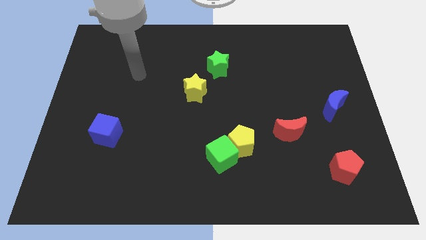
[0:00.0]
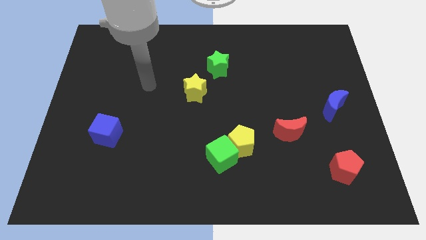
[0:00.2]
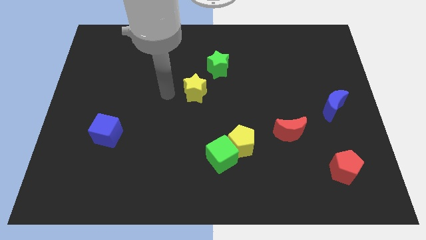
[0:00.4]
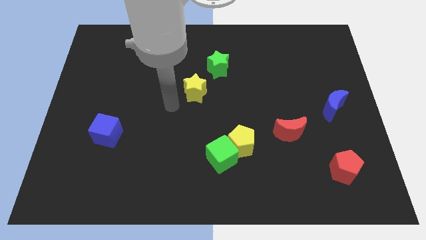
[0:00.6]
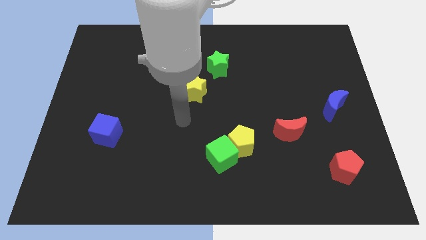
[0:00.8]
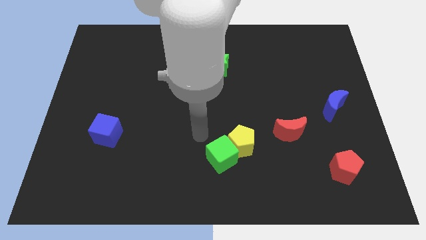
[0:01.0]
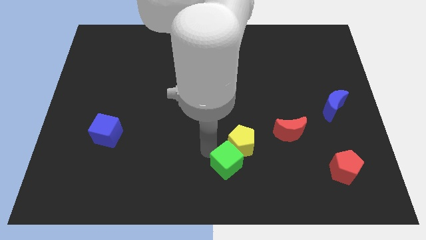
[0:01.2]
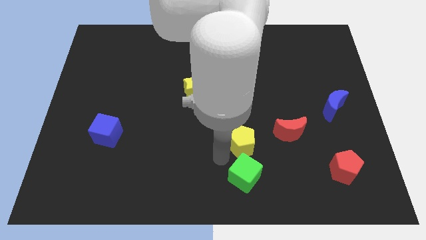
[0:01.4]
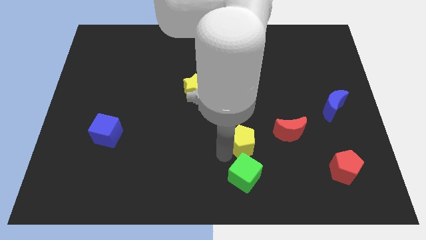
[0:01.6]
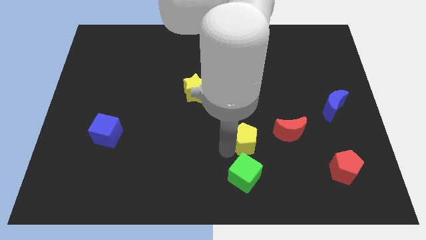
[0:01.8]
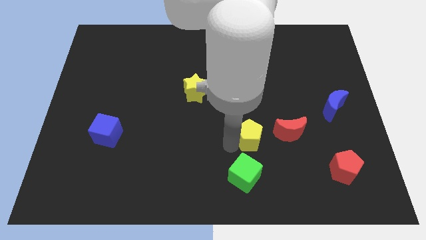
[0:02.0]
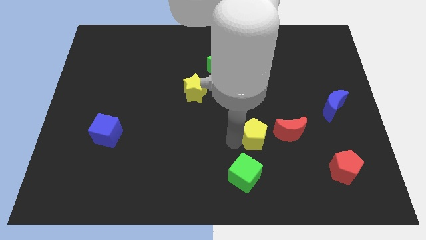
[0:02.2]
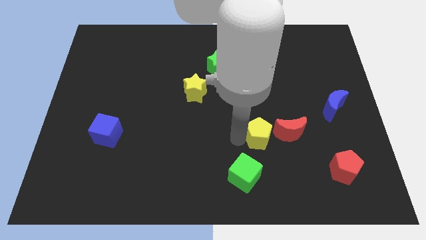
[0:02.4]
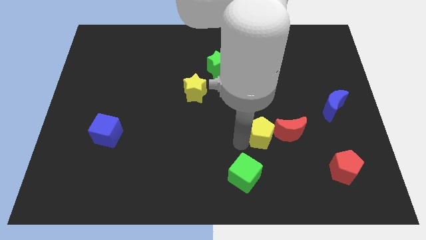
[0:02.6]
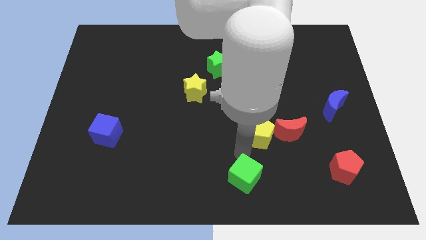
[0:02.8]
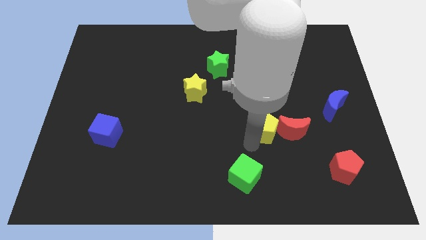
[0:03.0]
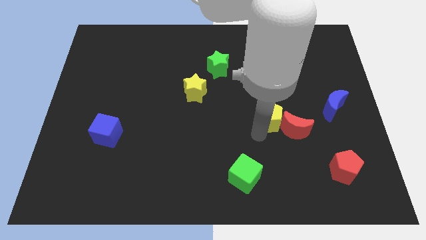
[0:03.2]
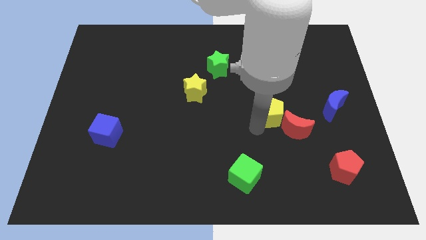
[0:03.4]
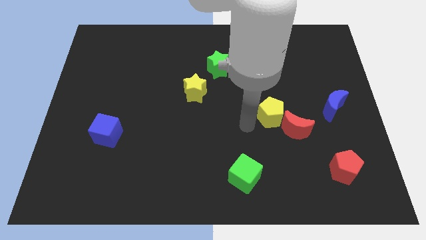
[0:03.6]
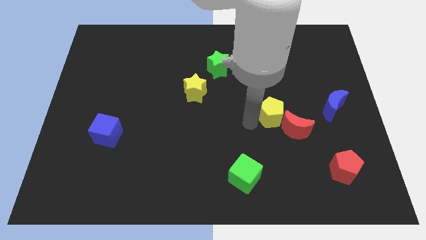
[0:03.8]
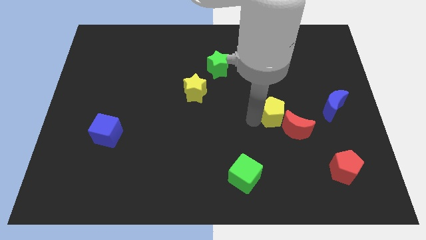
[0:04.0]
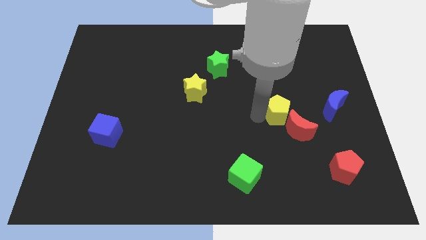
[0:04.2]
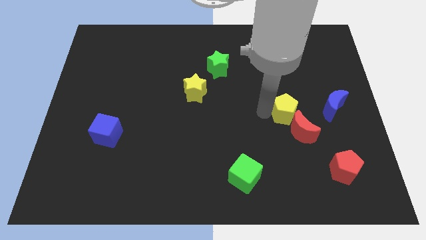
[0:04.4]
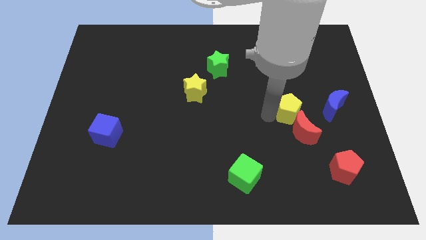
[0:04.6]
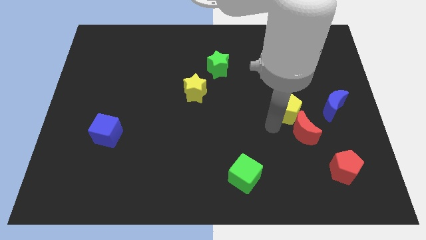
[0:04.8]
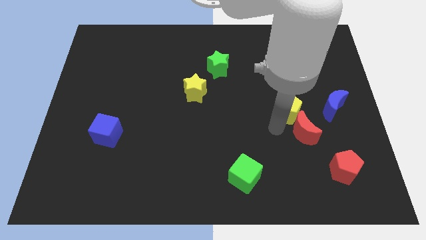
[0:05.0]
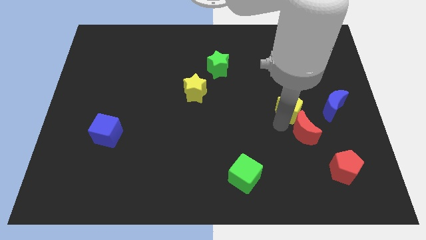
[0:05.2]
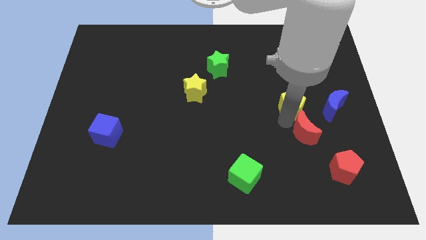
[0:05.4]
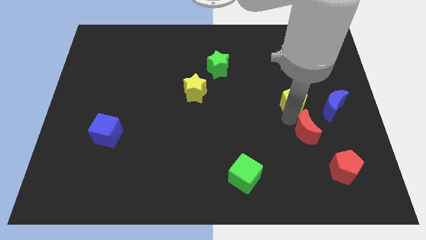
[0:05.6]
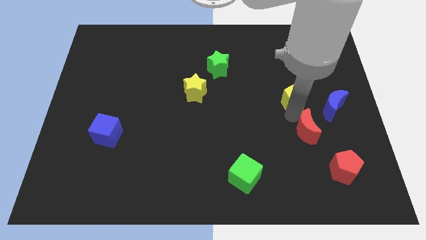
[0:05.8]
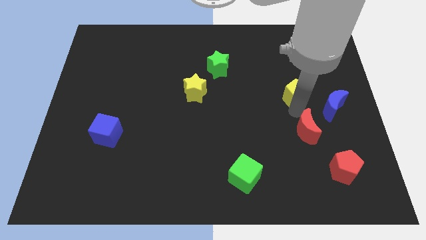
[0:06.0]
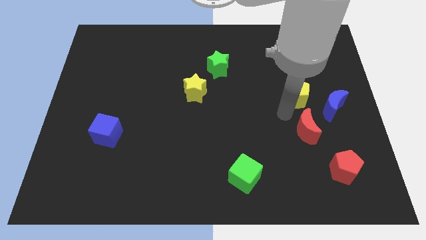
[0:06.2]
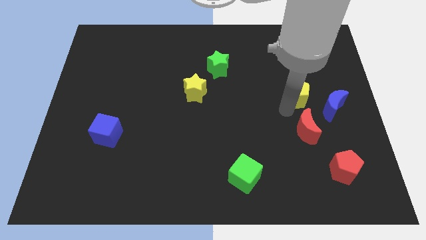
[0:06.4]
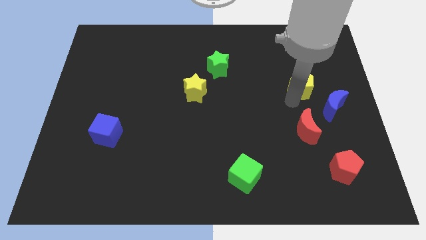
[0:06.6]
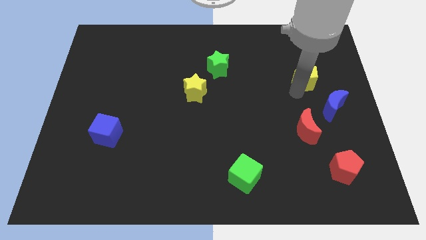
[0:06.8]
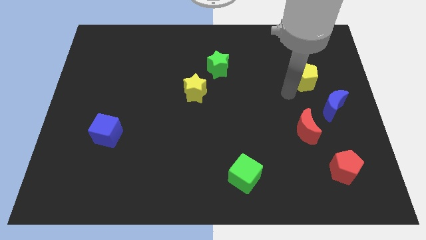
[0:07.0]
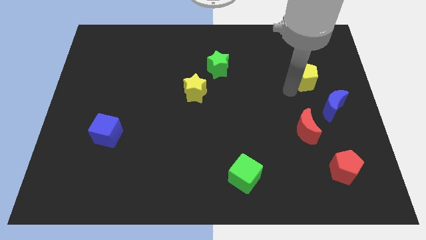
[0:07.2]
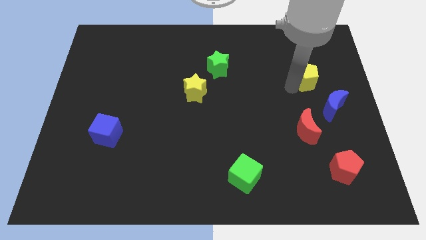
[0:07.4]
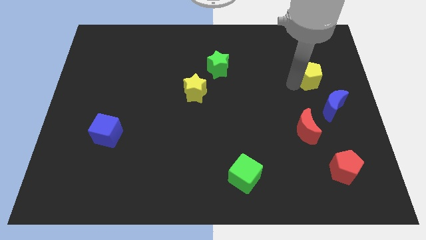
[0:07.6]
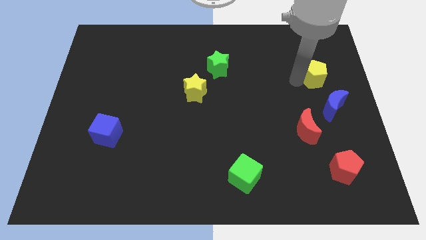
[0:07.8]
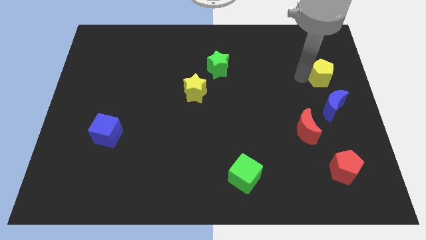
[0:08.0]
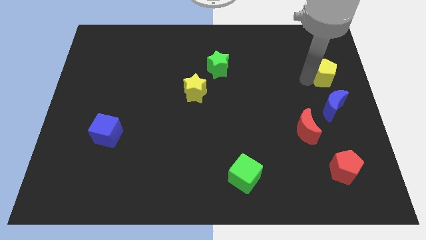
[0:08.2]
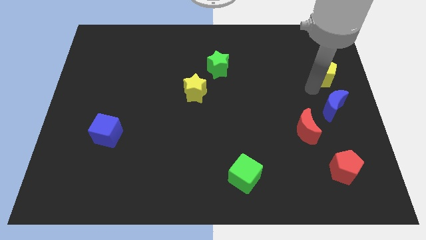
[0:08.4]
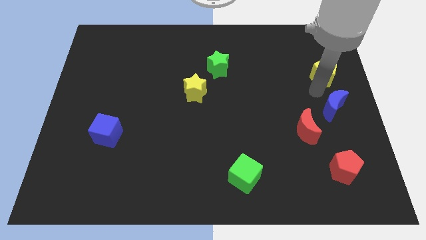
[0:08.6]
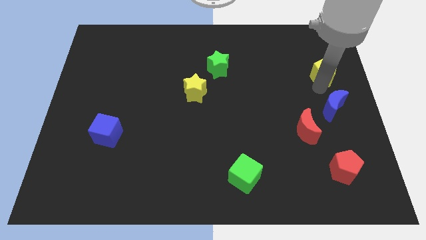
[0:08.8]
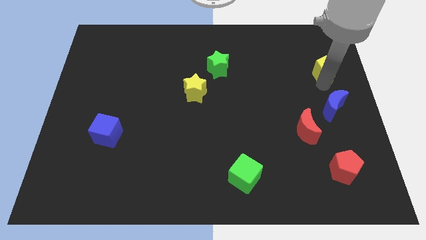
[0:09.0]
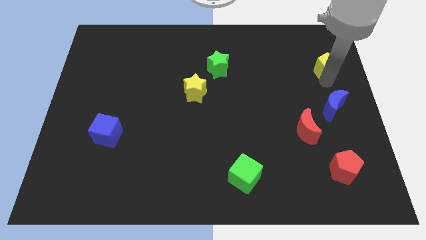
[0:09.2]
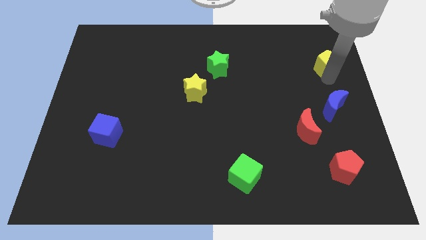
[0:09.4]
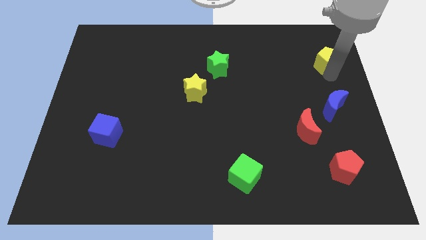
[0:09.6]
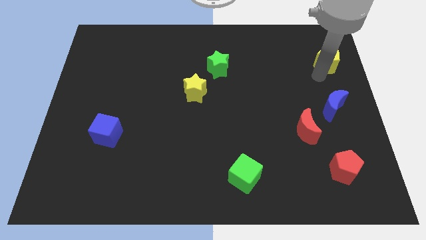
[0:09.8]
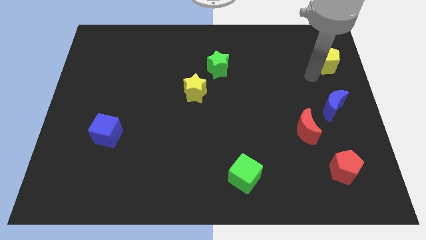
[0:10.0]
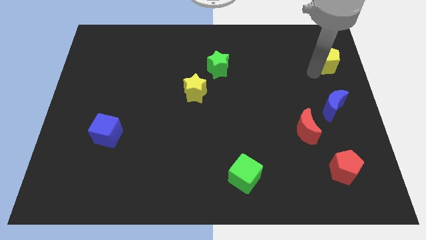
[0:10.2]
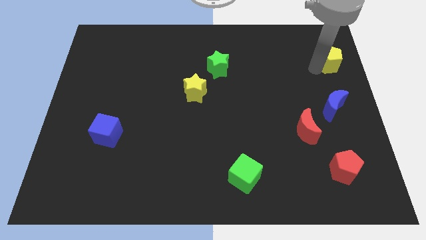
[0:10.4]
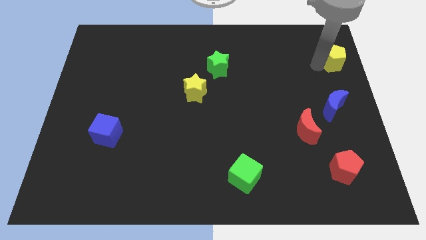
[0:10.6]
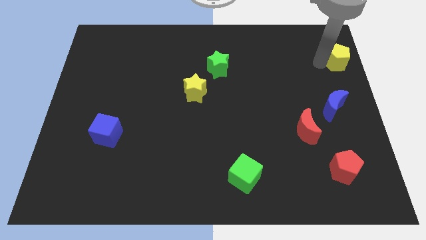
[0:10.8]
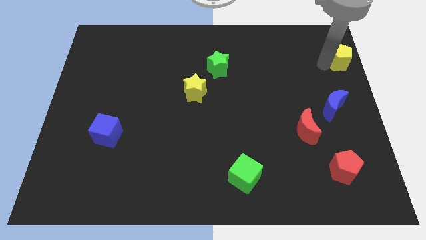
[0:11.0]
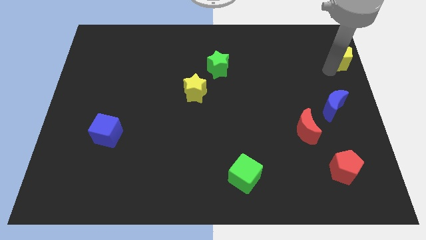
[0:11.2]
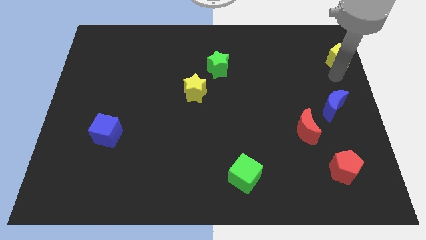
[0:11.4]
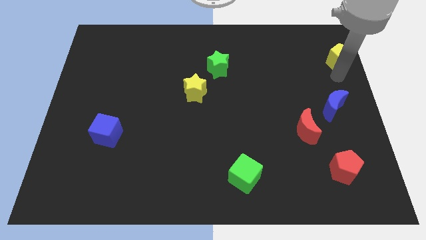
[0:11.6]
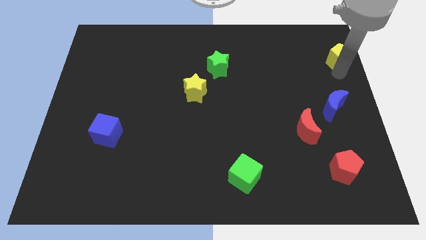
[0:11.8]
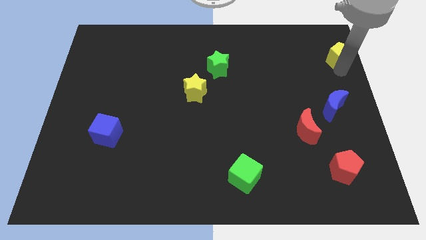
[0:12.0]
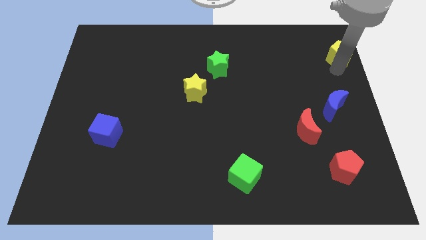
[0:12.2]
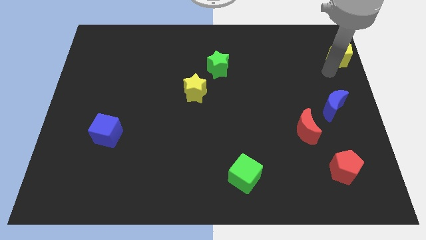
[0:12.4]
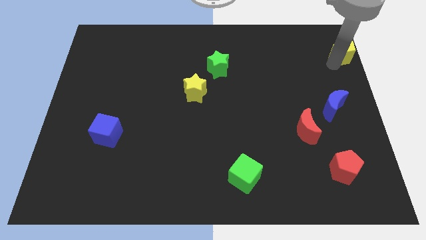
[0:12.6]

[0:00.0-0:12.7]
put the yellow pentagon to the upper right corner
